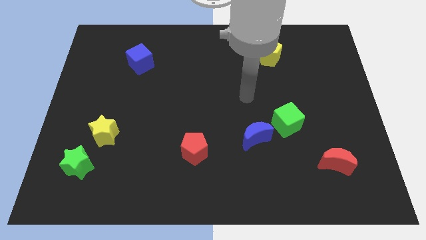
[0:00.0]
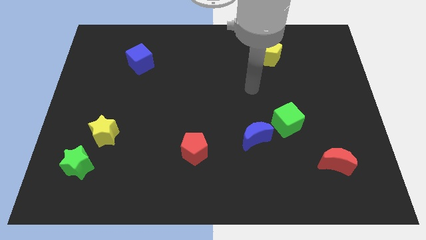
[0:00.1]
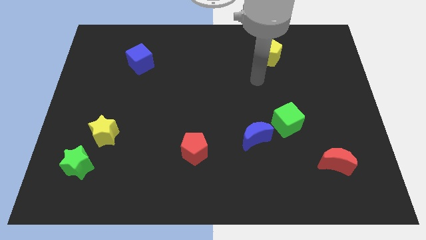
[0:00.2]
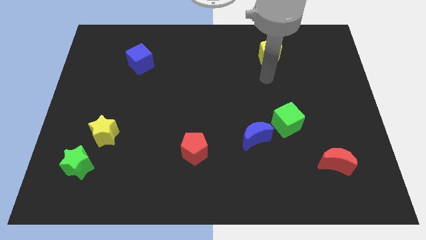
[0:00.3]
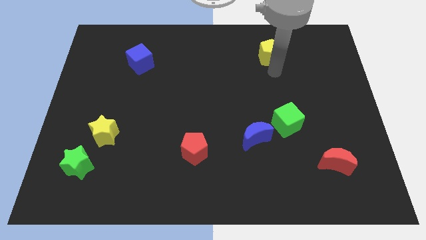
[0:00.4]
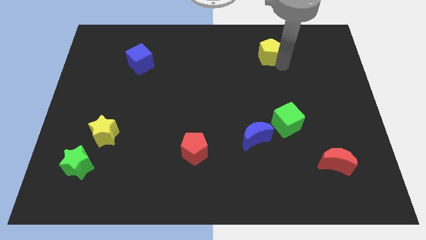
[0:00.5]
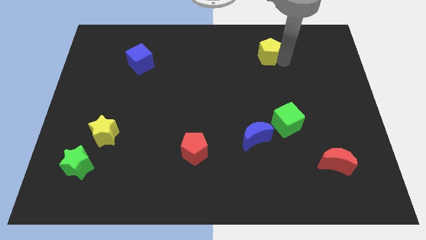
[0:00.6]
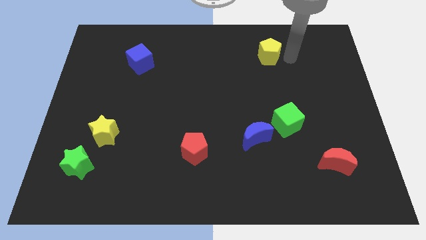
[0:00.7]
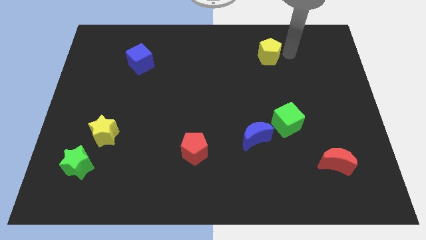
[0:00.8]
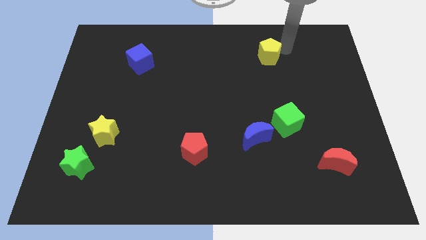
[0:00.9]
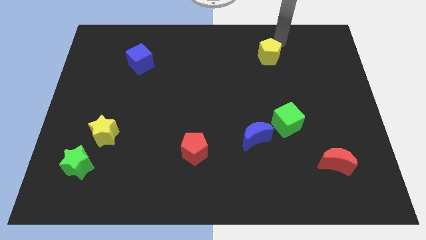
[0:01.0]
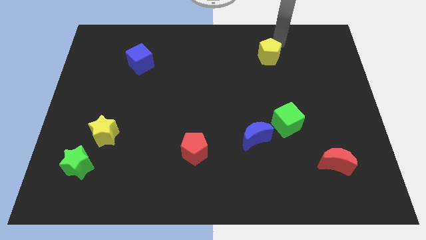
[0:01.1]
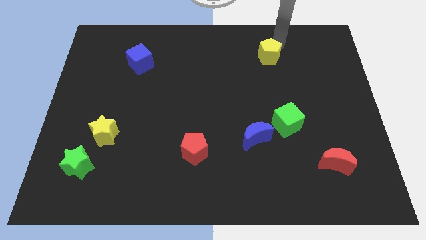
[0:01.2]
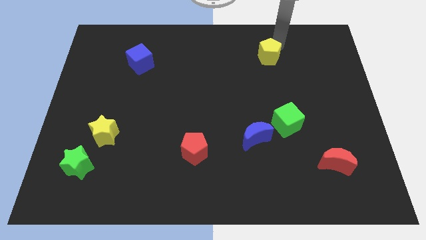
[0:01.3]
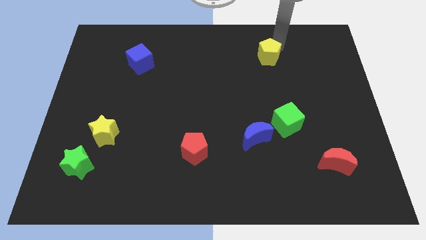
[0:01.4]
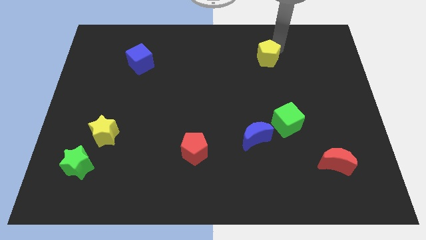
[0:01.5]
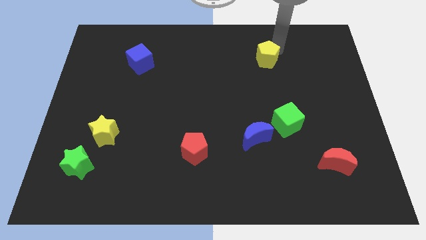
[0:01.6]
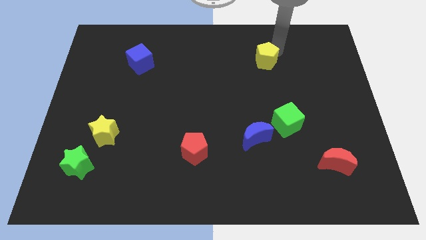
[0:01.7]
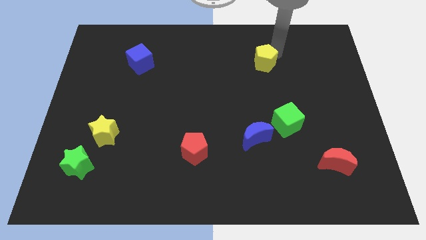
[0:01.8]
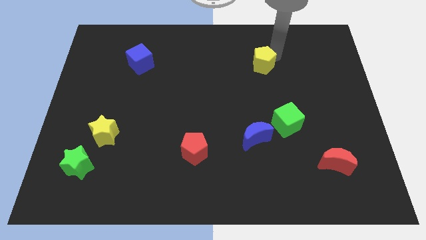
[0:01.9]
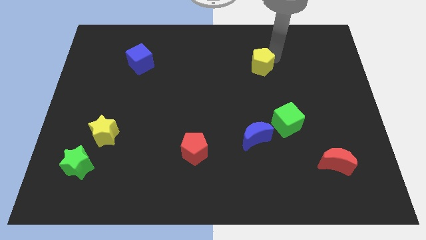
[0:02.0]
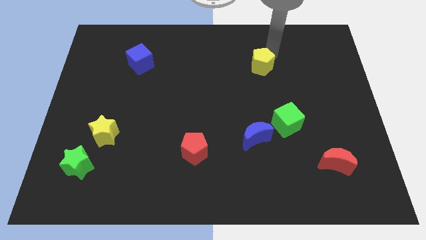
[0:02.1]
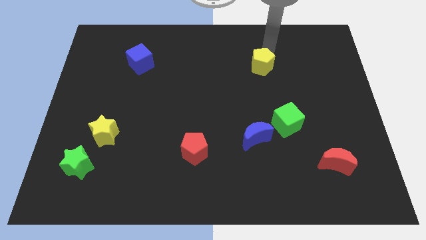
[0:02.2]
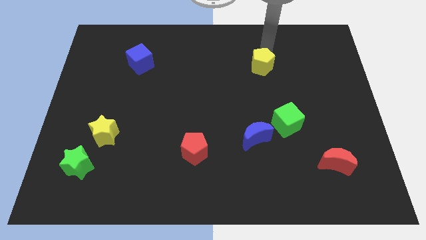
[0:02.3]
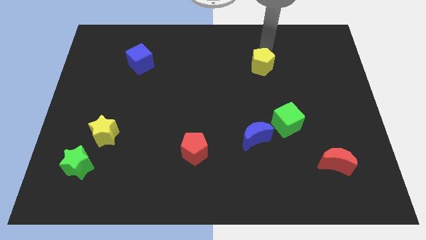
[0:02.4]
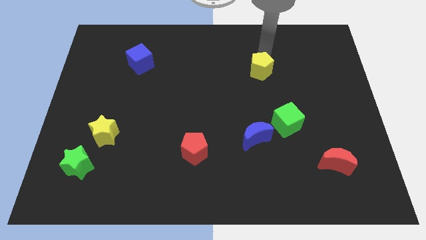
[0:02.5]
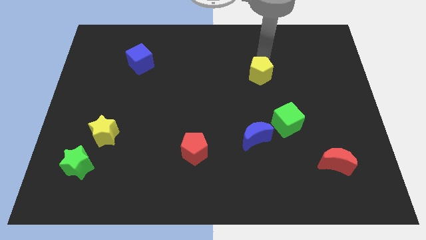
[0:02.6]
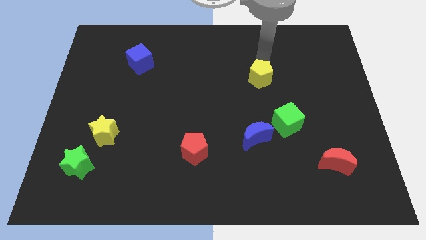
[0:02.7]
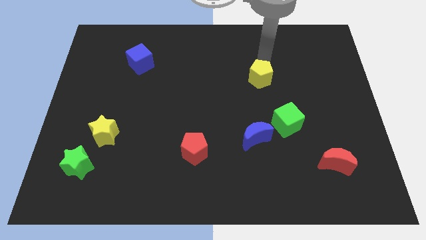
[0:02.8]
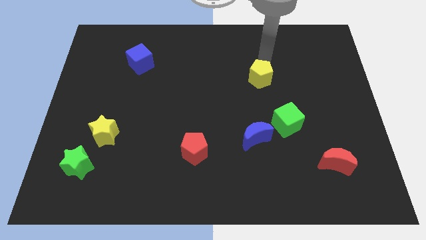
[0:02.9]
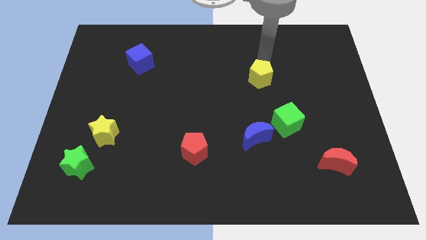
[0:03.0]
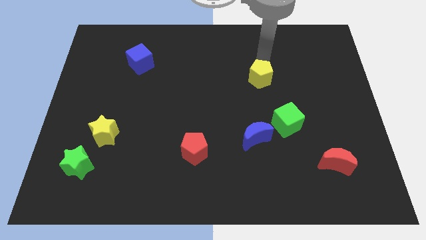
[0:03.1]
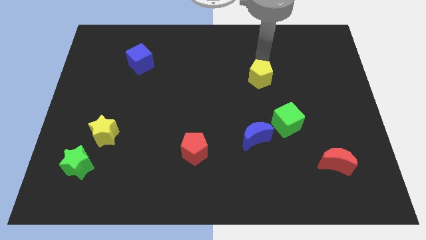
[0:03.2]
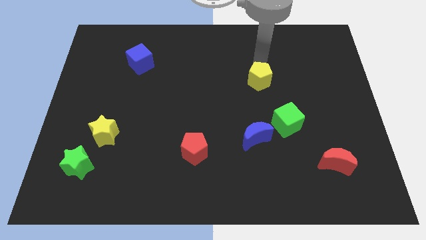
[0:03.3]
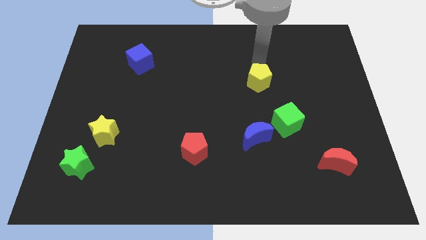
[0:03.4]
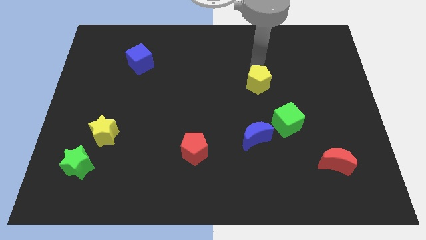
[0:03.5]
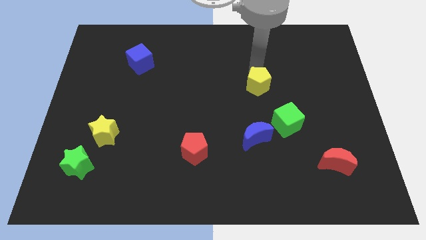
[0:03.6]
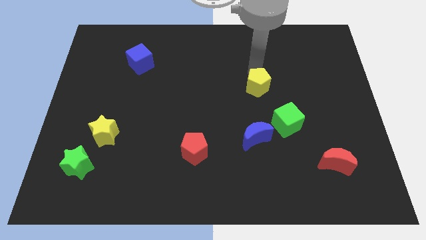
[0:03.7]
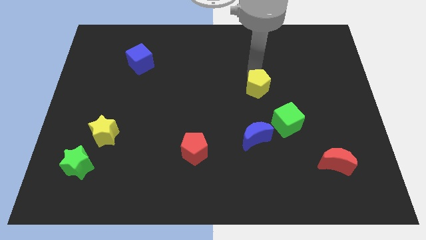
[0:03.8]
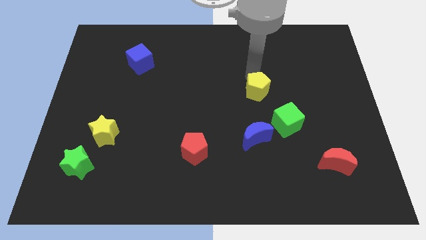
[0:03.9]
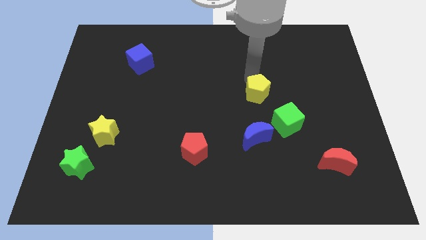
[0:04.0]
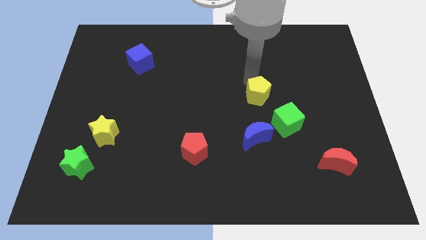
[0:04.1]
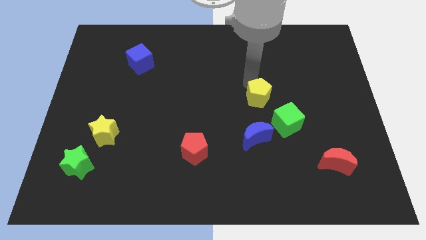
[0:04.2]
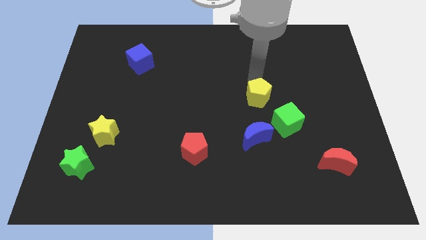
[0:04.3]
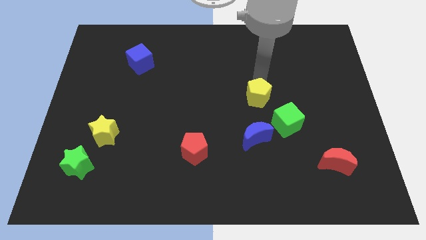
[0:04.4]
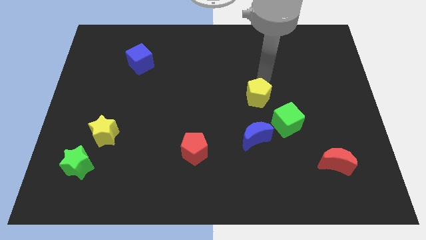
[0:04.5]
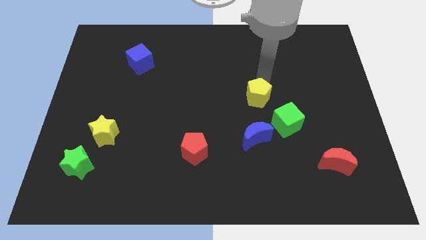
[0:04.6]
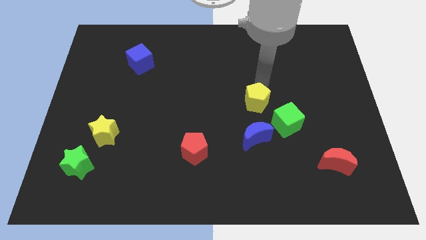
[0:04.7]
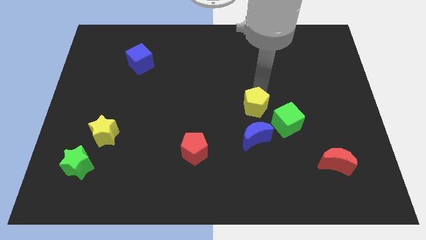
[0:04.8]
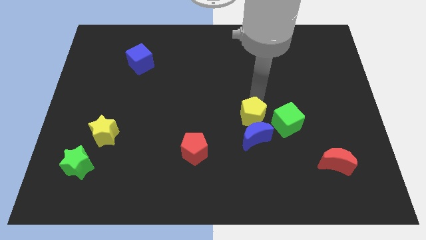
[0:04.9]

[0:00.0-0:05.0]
move the yellow pentagon next to the blue moon

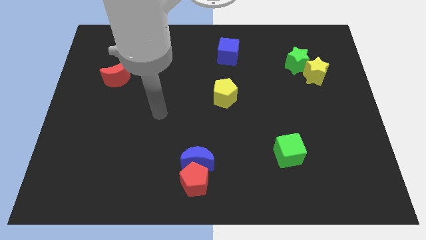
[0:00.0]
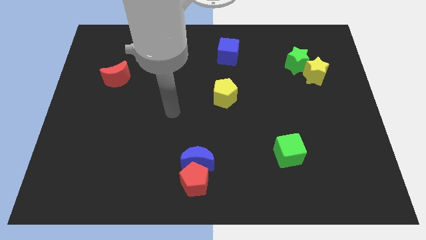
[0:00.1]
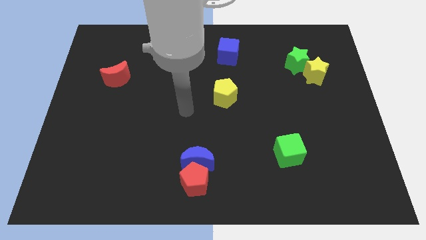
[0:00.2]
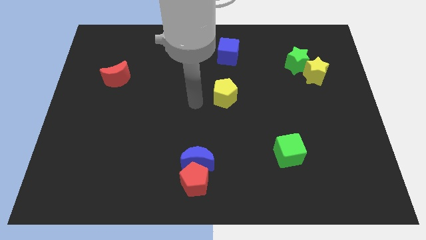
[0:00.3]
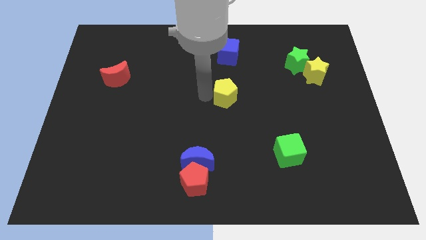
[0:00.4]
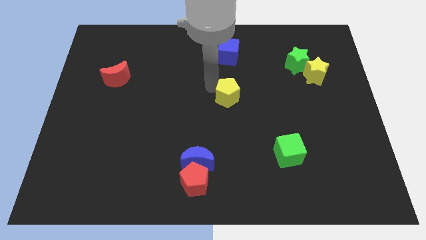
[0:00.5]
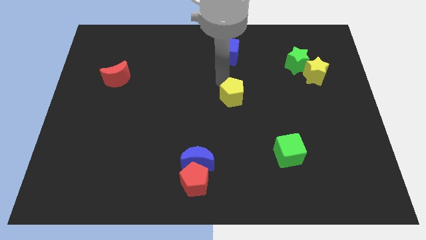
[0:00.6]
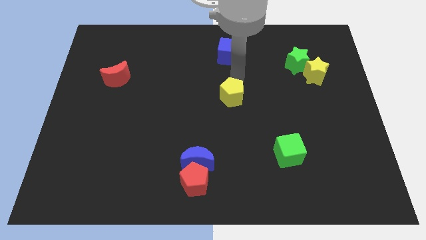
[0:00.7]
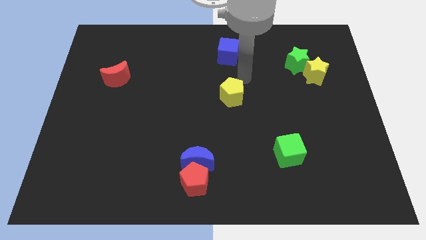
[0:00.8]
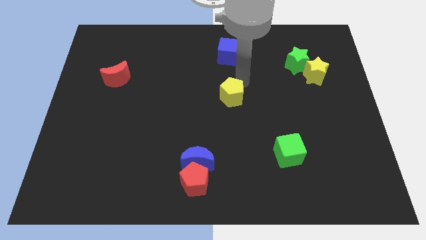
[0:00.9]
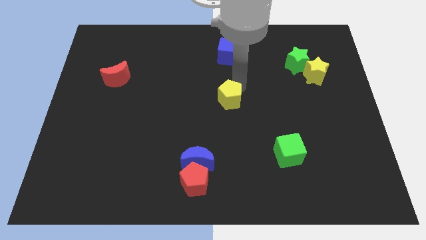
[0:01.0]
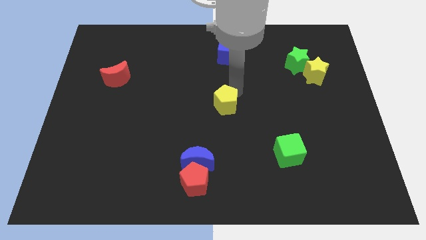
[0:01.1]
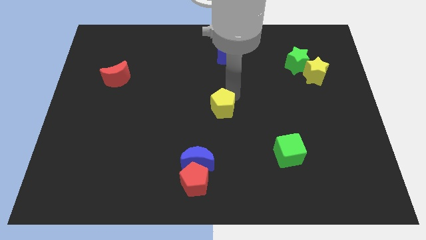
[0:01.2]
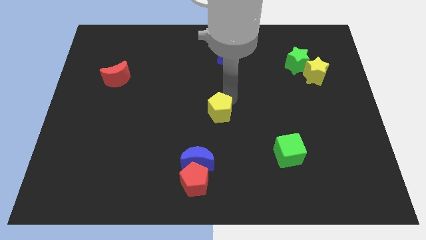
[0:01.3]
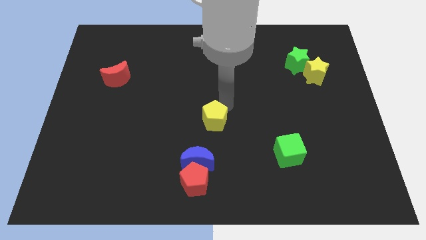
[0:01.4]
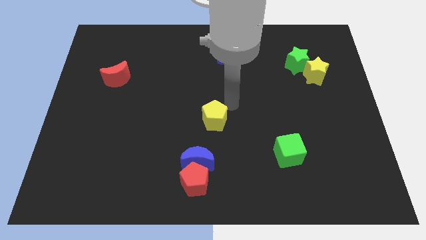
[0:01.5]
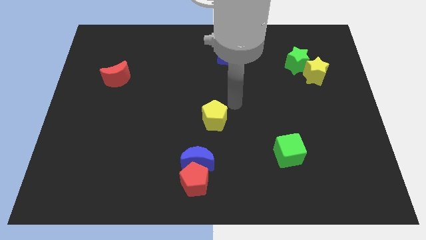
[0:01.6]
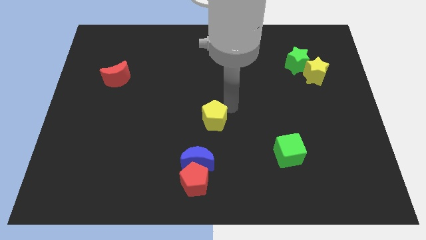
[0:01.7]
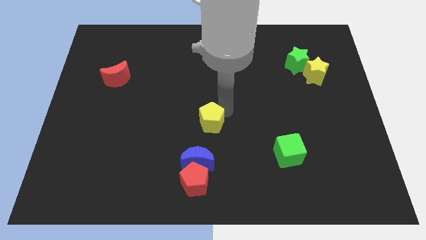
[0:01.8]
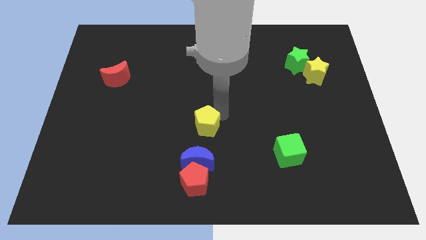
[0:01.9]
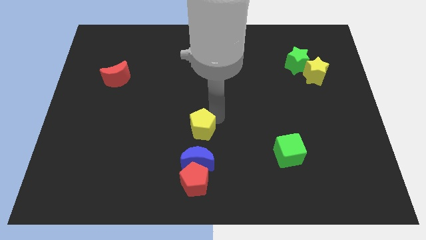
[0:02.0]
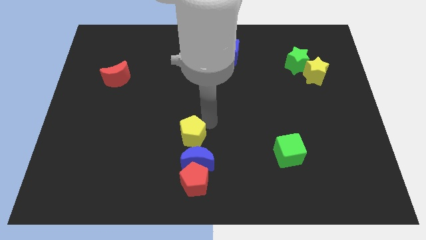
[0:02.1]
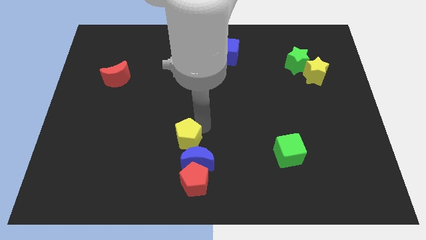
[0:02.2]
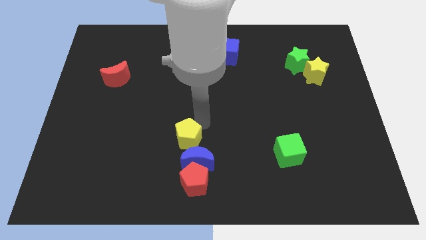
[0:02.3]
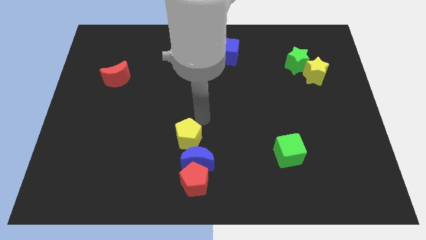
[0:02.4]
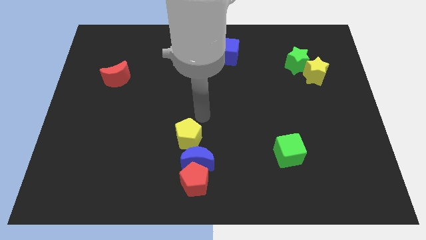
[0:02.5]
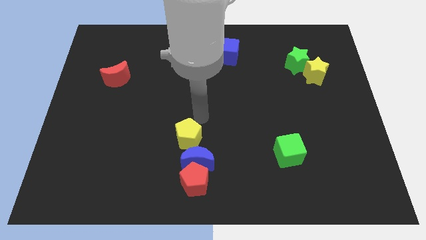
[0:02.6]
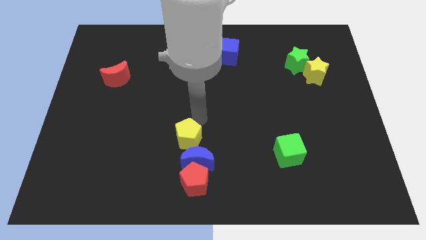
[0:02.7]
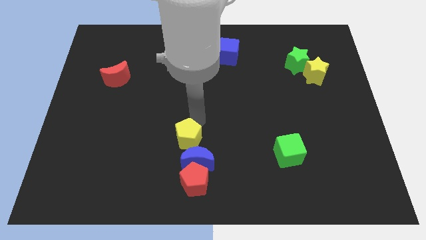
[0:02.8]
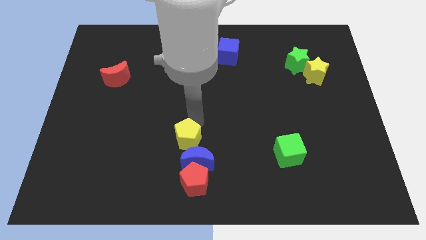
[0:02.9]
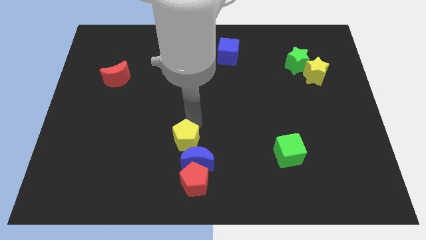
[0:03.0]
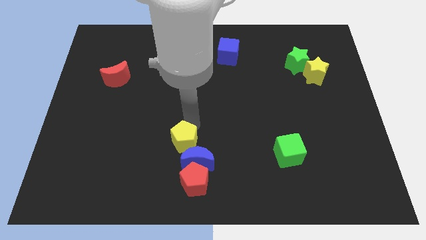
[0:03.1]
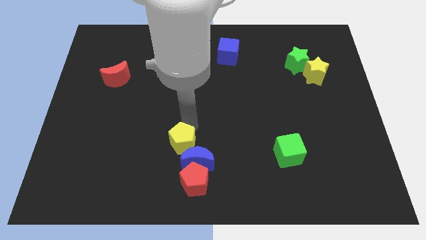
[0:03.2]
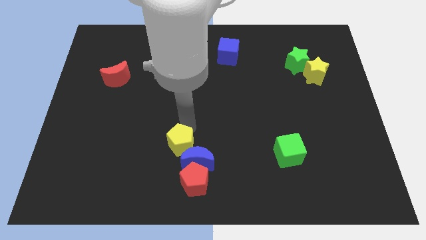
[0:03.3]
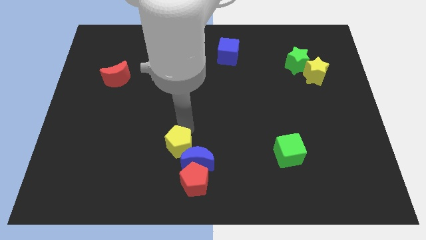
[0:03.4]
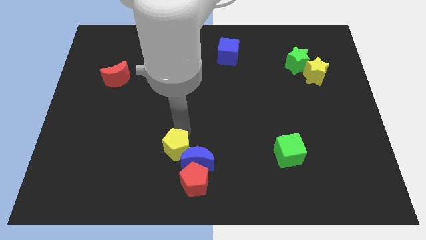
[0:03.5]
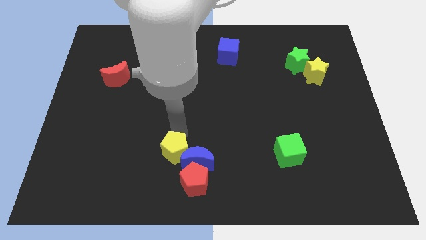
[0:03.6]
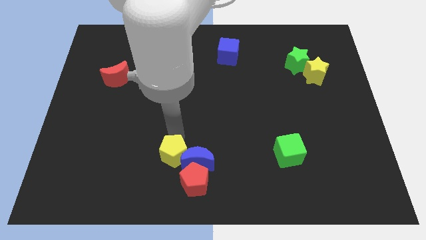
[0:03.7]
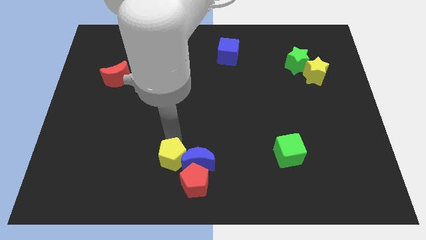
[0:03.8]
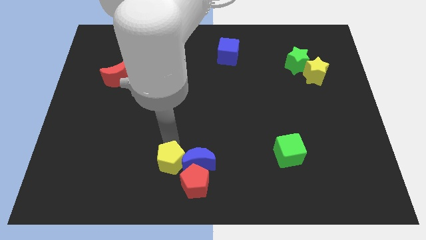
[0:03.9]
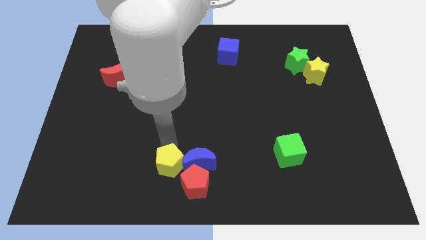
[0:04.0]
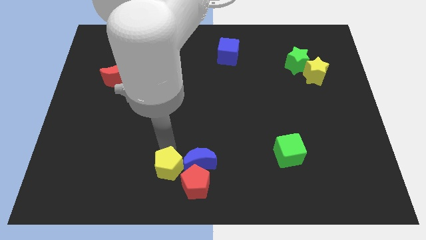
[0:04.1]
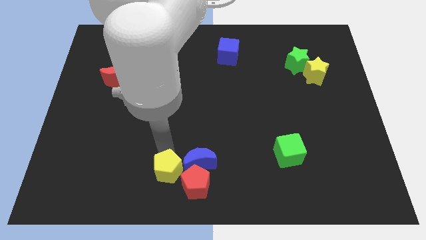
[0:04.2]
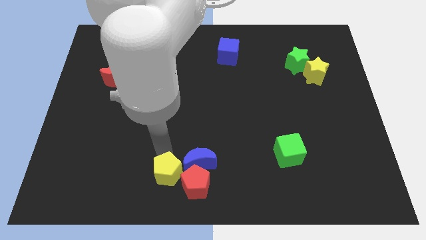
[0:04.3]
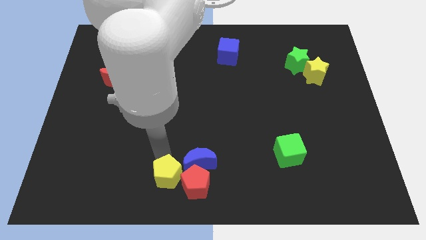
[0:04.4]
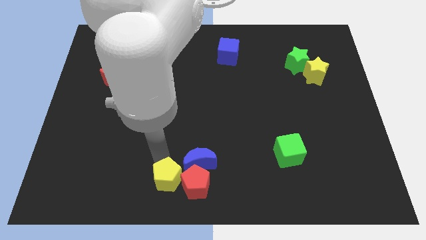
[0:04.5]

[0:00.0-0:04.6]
slide the yellow pentagon close to the red pentagon
